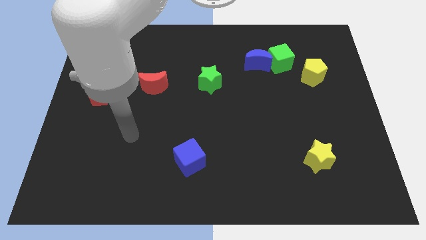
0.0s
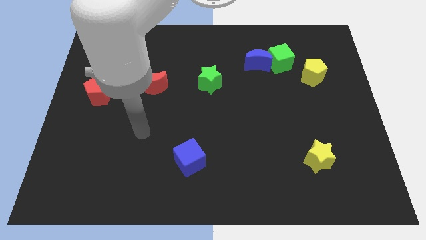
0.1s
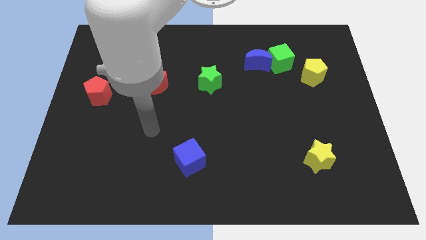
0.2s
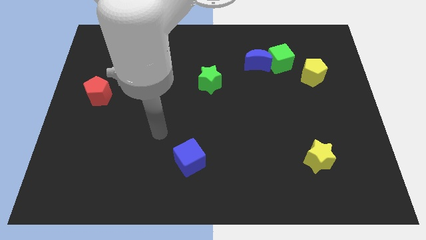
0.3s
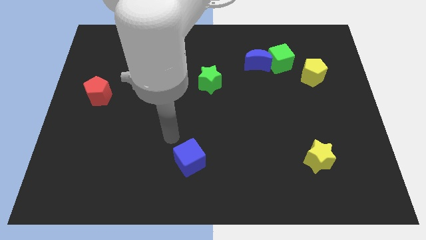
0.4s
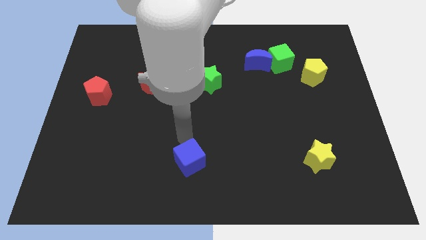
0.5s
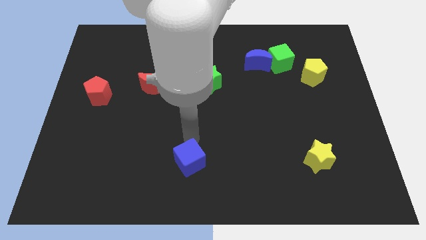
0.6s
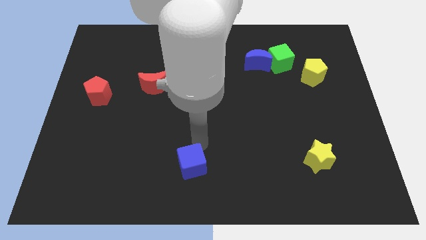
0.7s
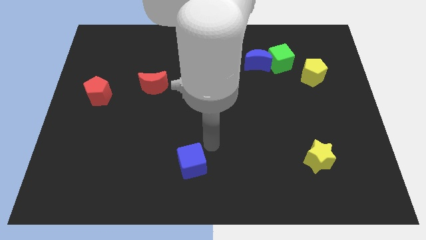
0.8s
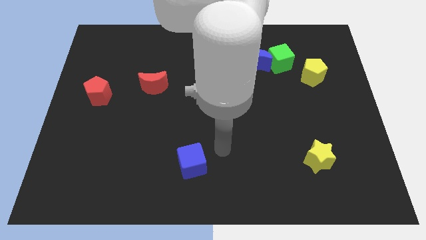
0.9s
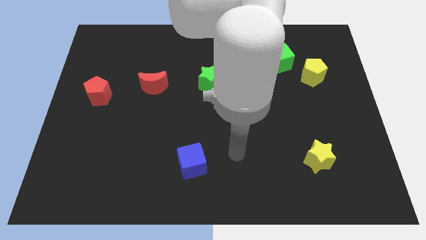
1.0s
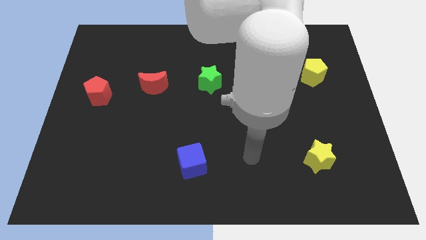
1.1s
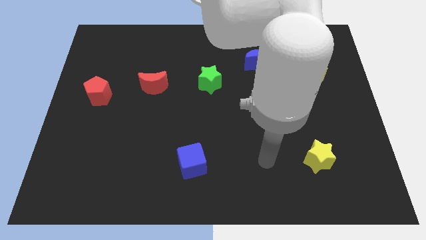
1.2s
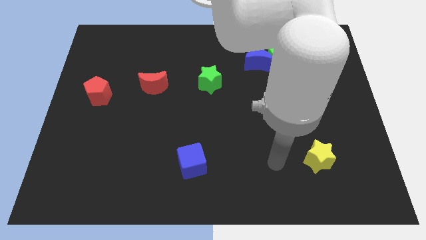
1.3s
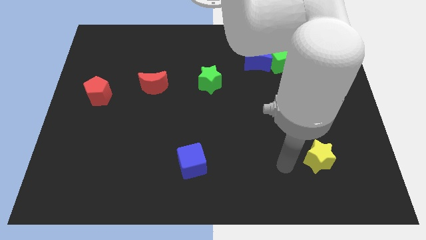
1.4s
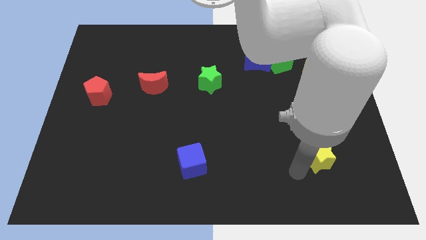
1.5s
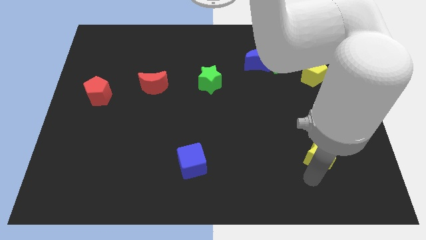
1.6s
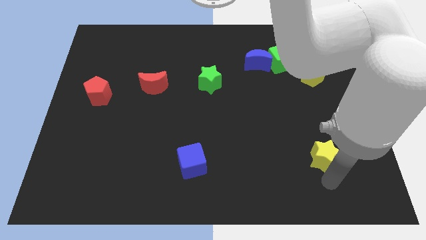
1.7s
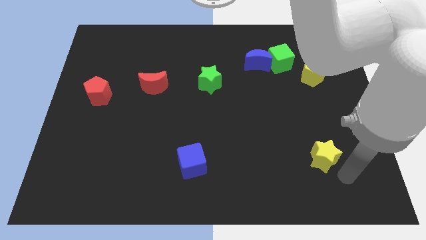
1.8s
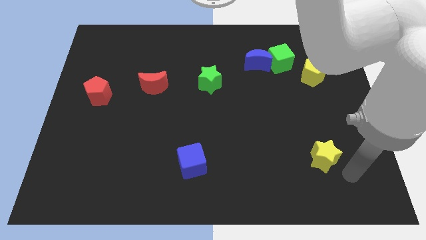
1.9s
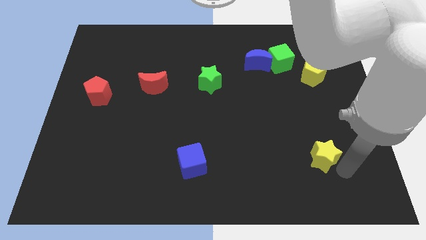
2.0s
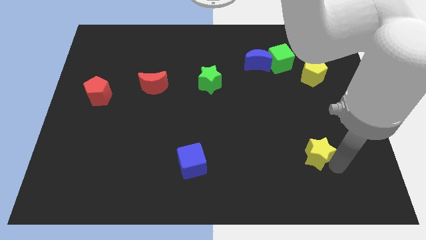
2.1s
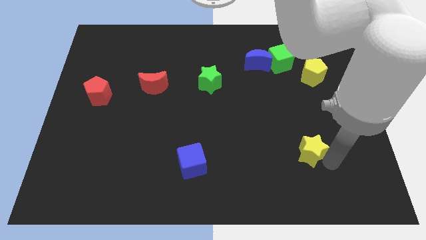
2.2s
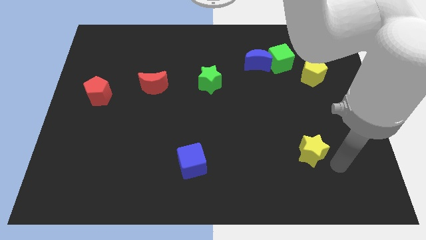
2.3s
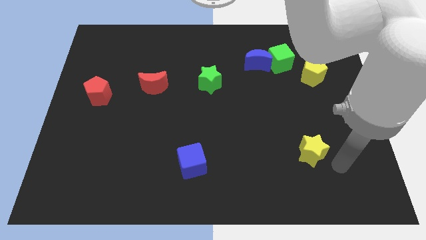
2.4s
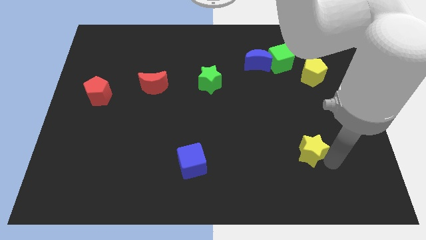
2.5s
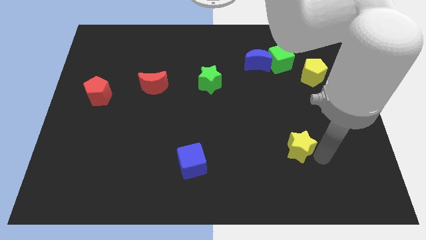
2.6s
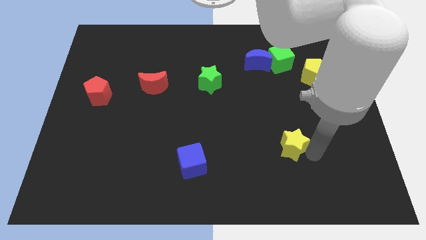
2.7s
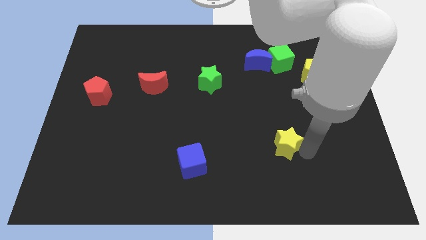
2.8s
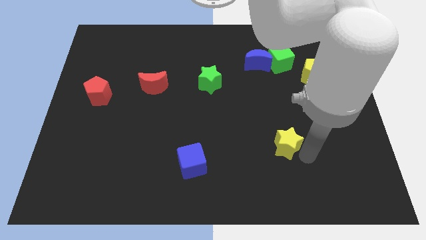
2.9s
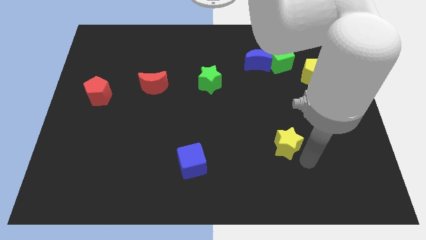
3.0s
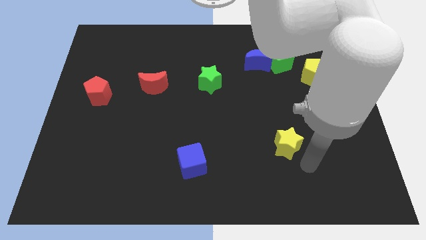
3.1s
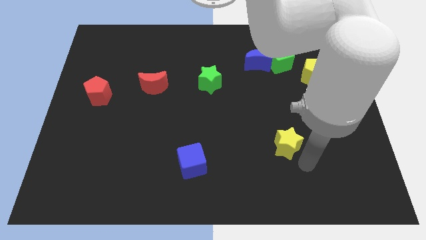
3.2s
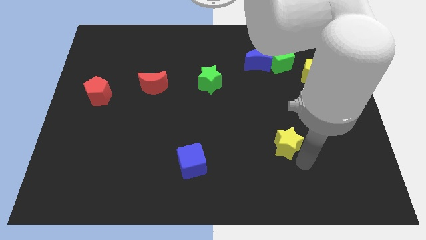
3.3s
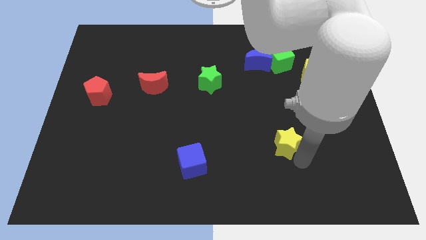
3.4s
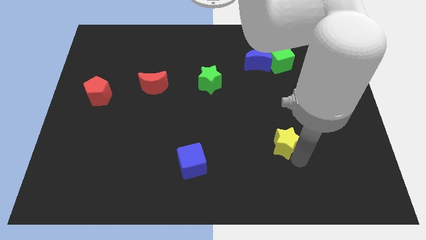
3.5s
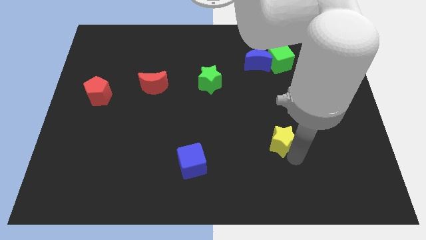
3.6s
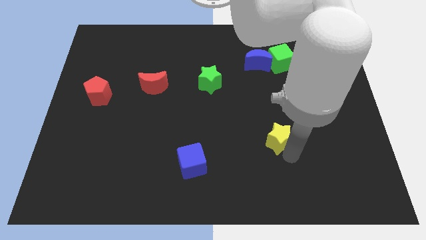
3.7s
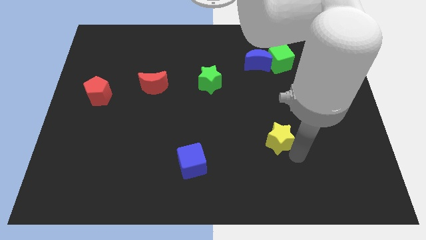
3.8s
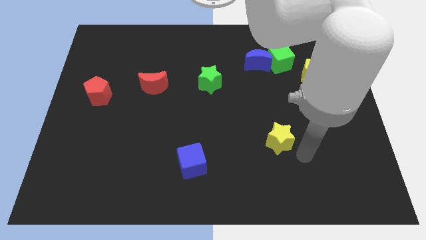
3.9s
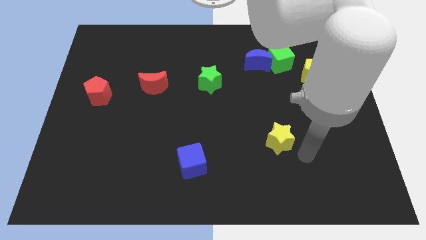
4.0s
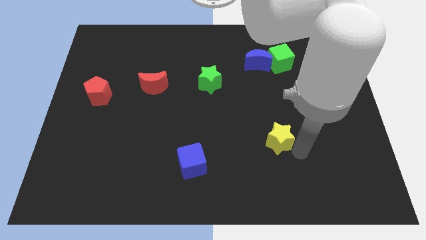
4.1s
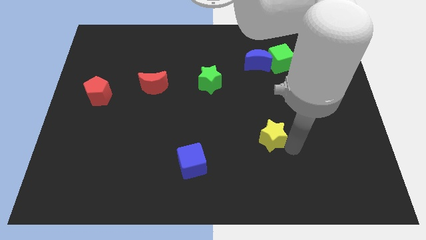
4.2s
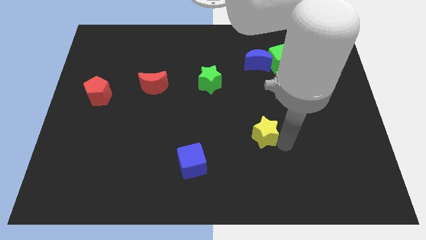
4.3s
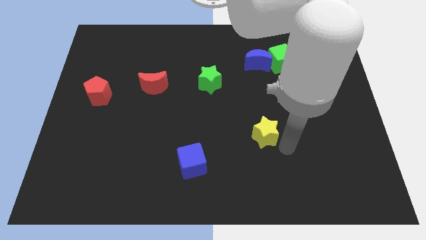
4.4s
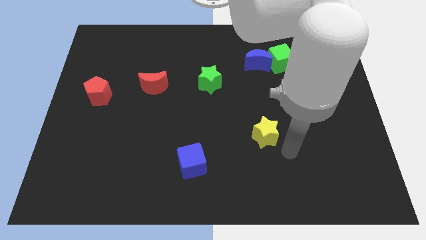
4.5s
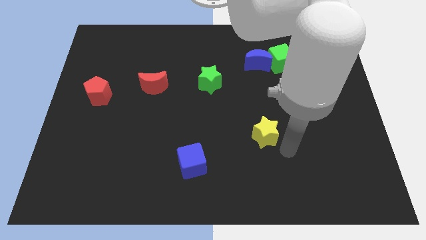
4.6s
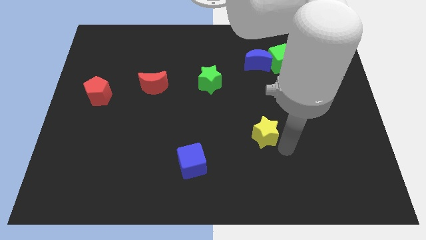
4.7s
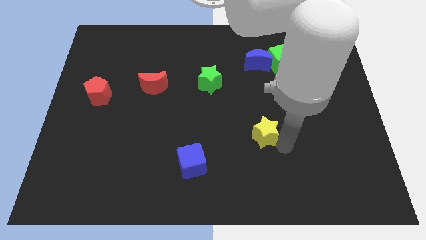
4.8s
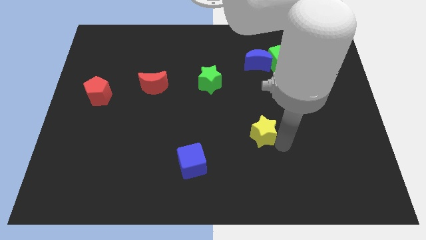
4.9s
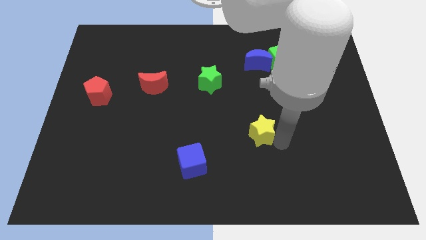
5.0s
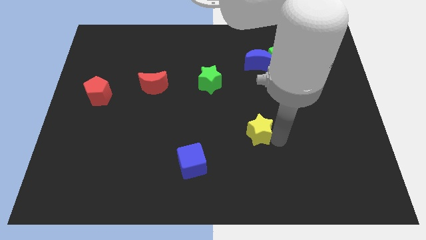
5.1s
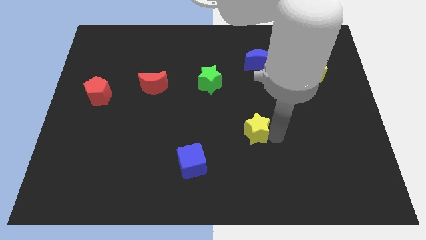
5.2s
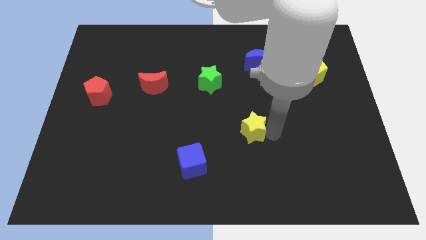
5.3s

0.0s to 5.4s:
slide the yellow star to the center of the board
